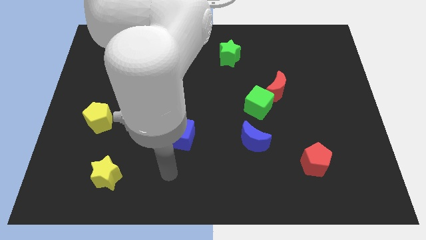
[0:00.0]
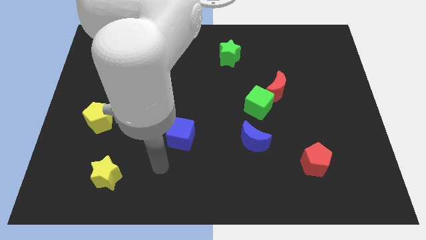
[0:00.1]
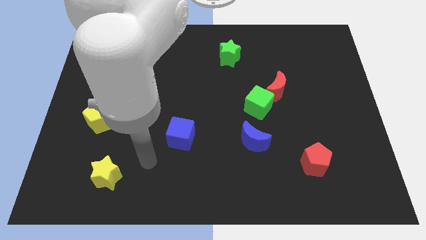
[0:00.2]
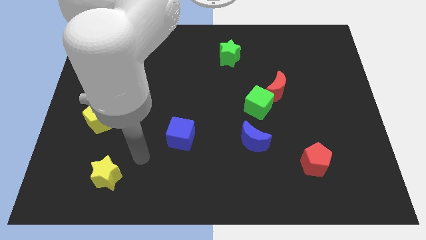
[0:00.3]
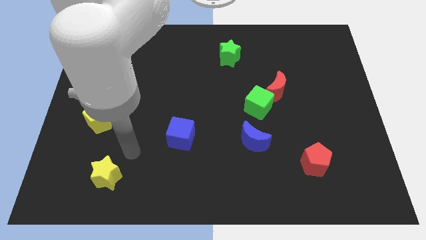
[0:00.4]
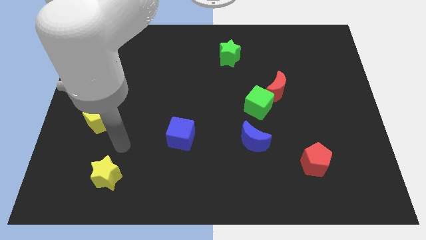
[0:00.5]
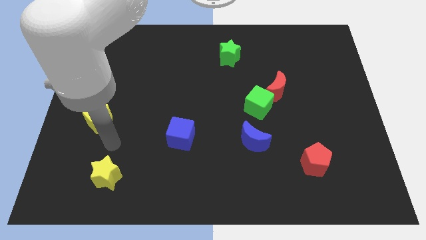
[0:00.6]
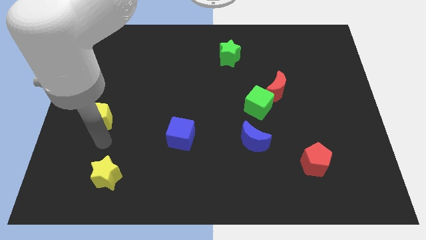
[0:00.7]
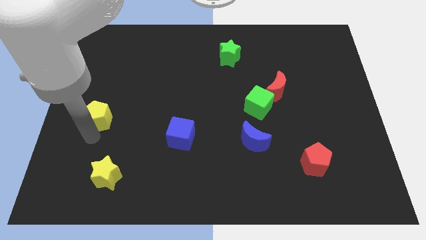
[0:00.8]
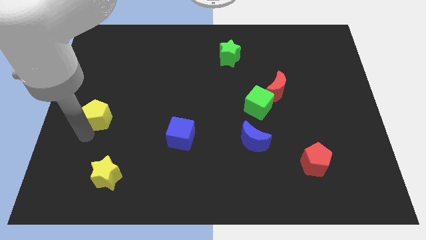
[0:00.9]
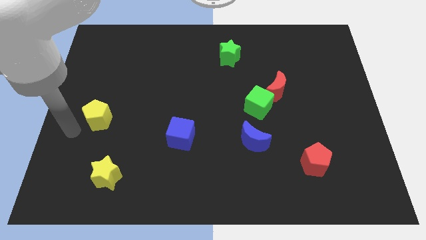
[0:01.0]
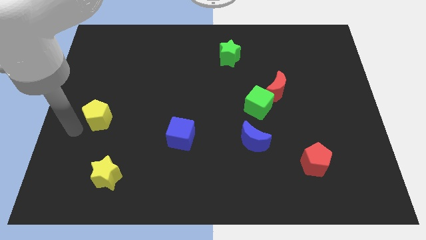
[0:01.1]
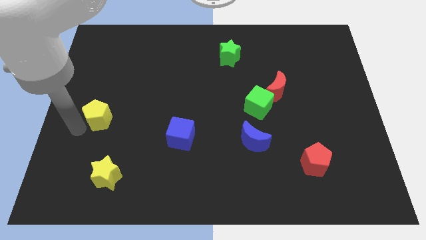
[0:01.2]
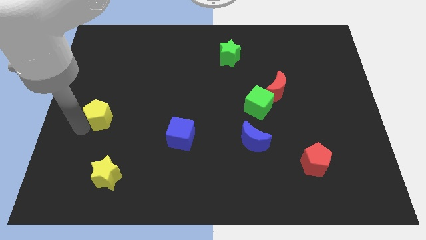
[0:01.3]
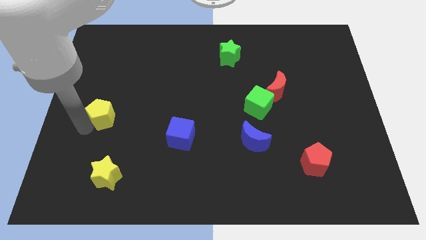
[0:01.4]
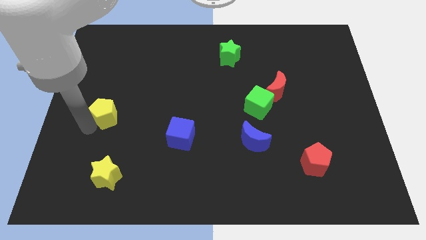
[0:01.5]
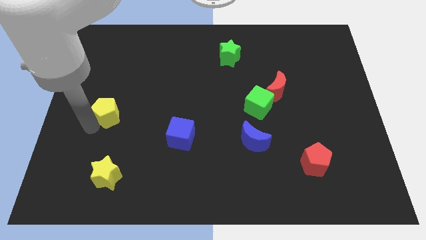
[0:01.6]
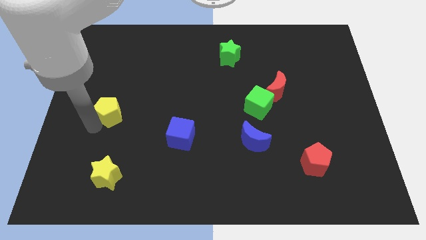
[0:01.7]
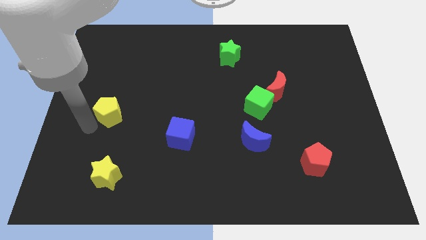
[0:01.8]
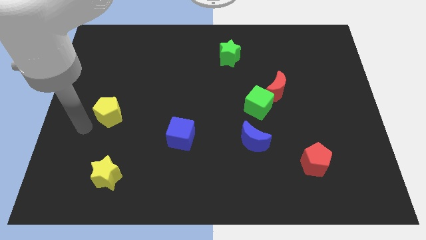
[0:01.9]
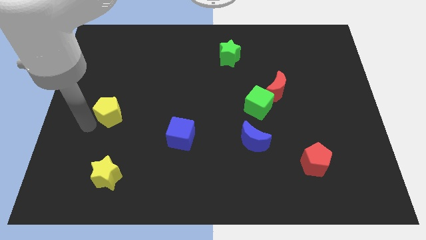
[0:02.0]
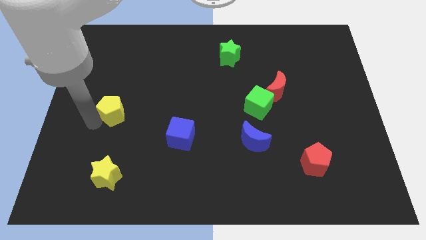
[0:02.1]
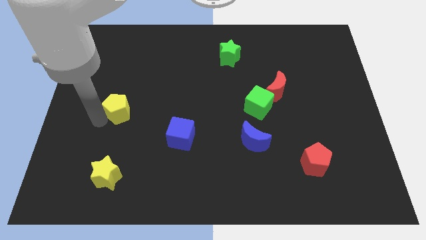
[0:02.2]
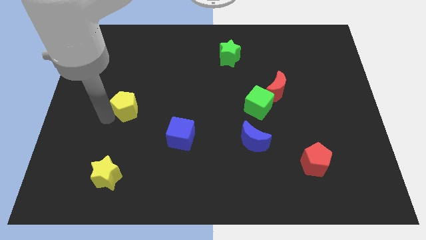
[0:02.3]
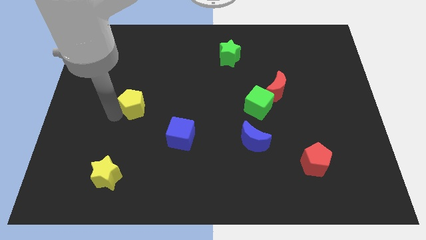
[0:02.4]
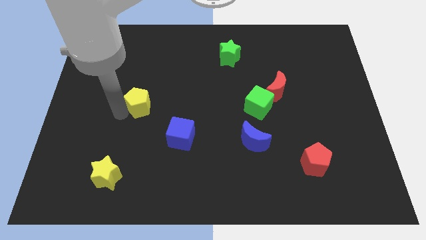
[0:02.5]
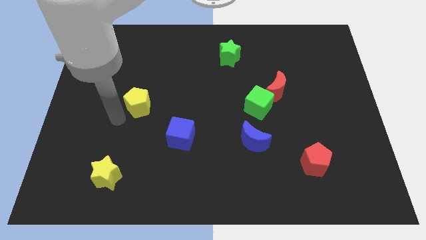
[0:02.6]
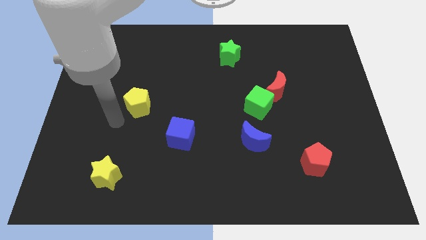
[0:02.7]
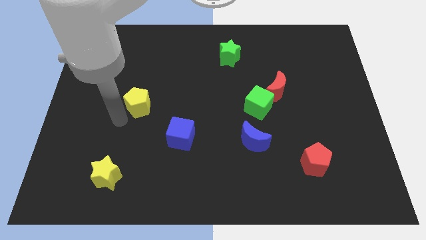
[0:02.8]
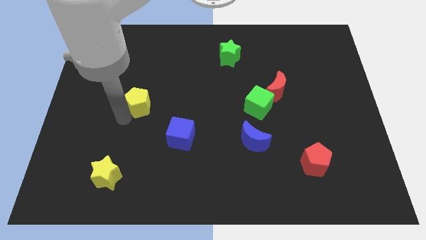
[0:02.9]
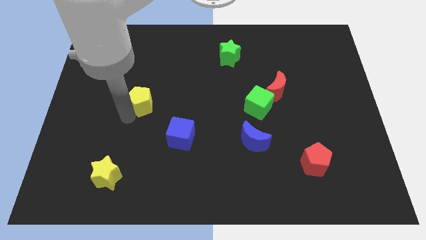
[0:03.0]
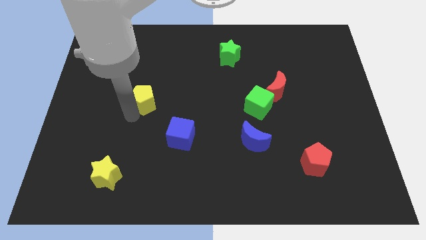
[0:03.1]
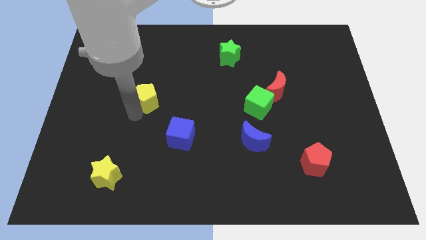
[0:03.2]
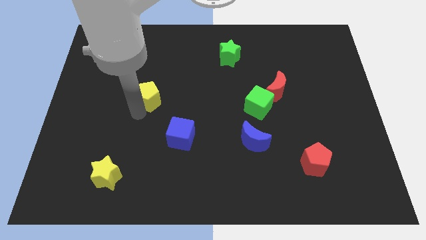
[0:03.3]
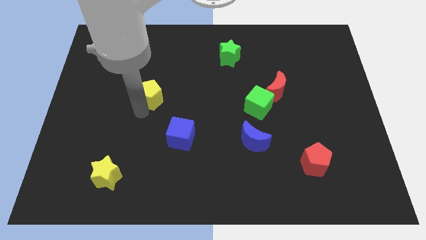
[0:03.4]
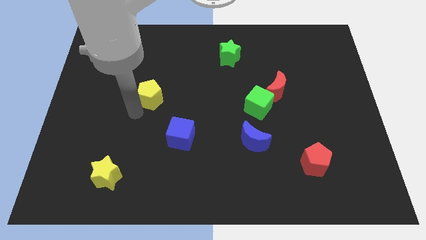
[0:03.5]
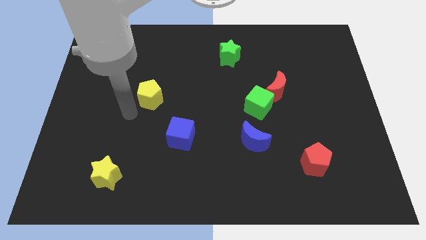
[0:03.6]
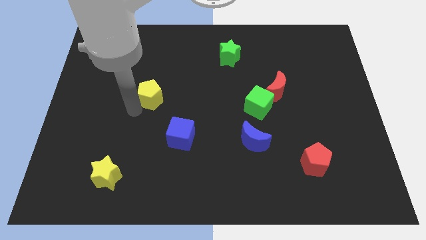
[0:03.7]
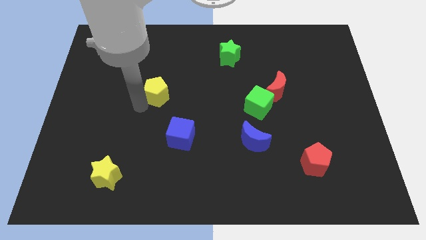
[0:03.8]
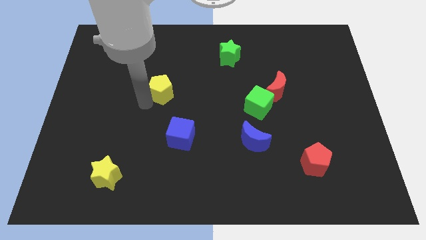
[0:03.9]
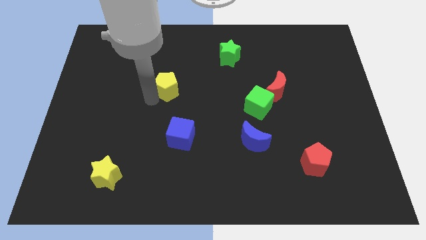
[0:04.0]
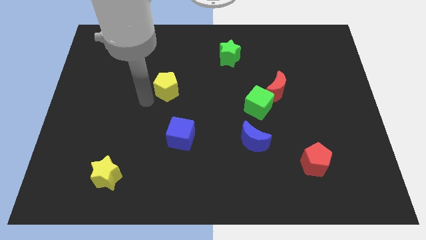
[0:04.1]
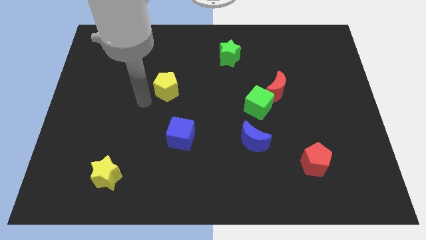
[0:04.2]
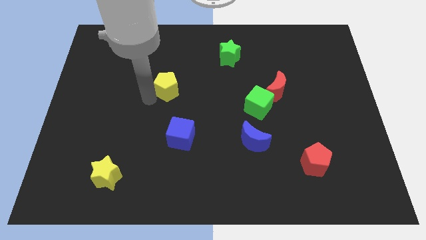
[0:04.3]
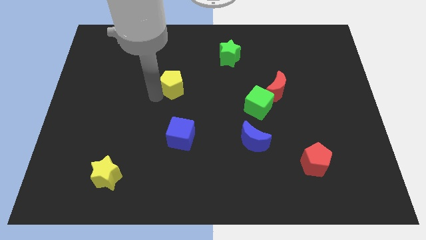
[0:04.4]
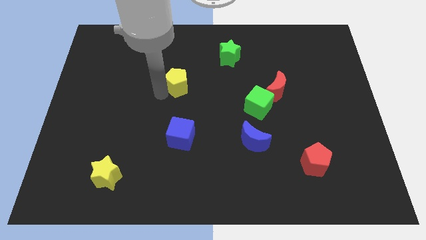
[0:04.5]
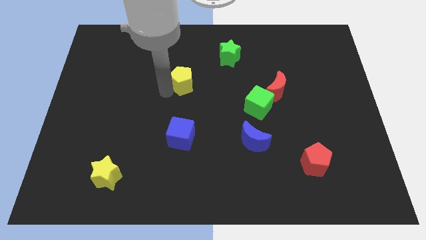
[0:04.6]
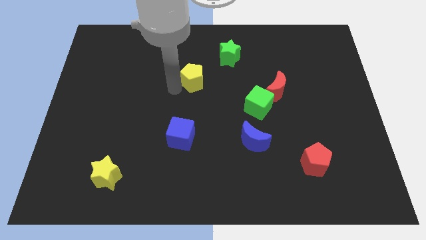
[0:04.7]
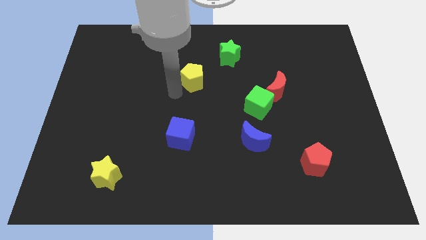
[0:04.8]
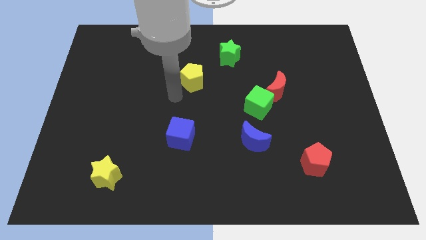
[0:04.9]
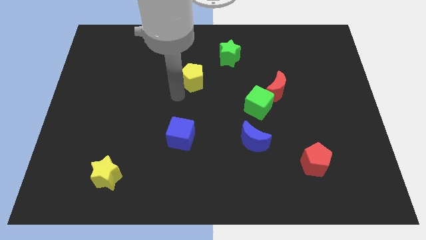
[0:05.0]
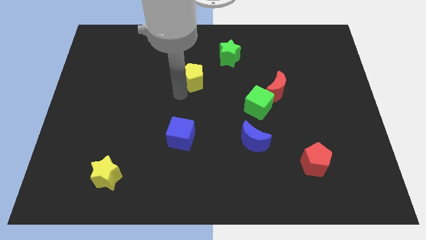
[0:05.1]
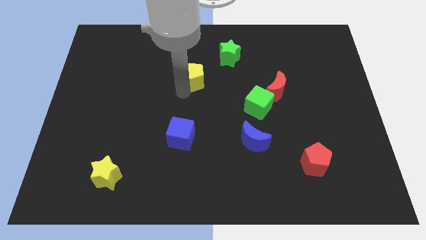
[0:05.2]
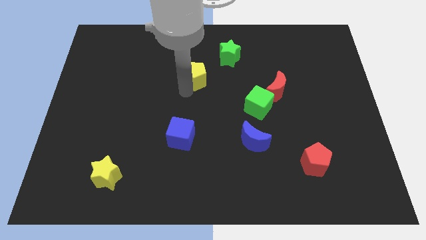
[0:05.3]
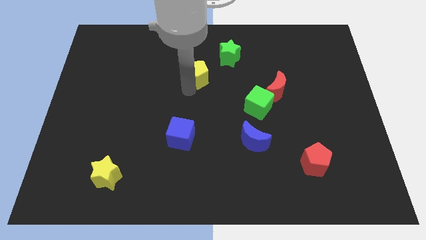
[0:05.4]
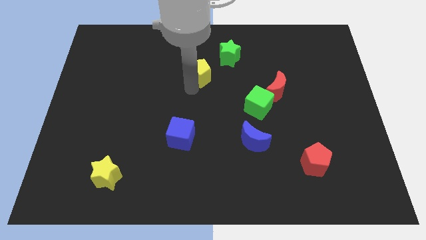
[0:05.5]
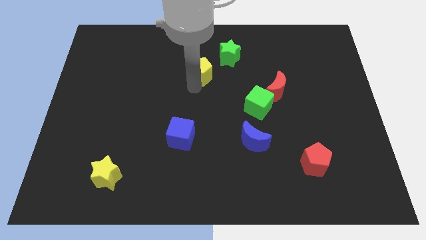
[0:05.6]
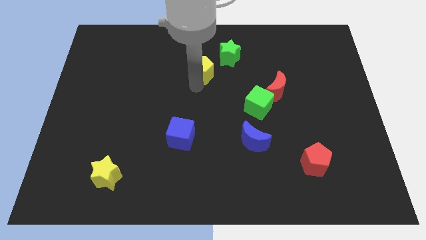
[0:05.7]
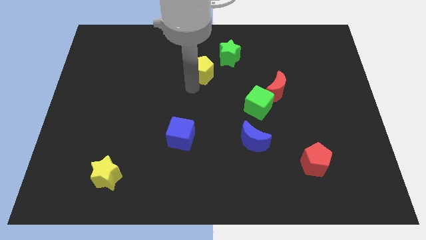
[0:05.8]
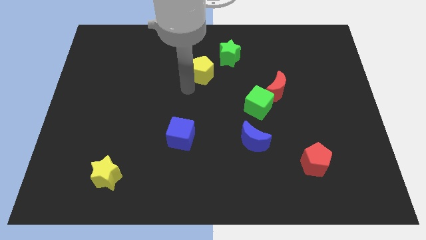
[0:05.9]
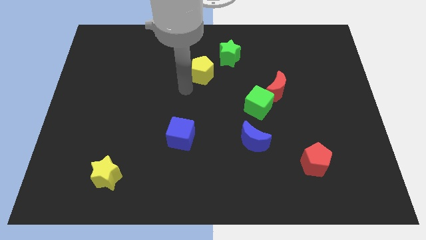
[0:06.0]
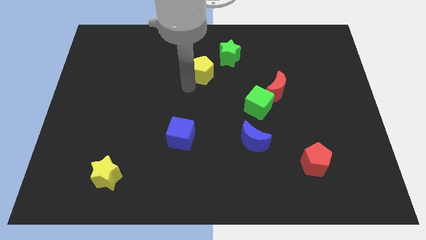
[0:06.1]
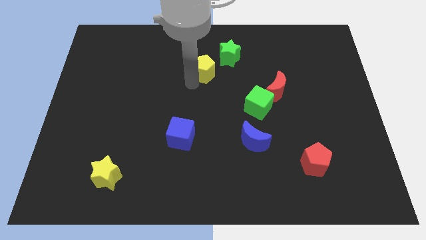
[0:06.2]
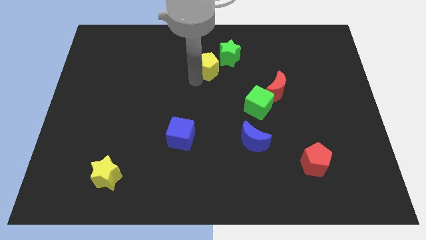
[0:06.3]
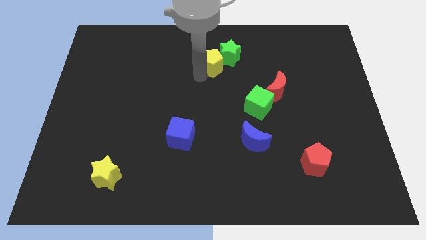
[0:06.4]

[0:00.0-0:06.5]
move the yellow pentagon to the green star

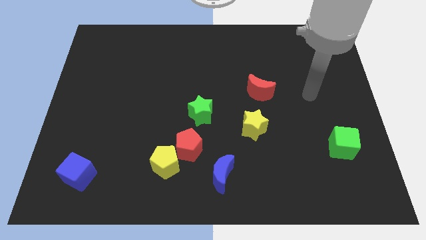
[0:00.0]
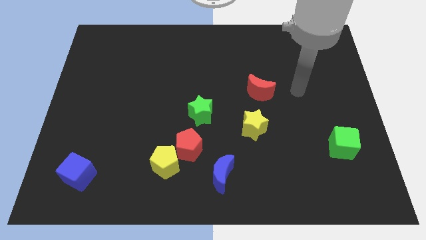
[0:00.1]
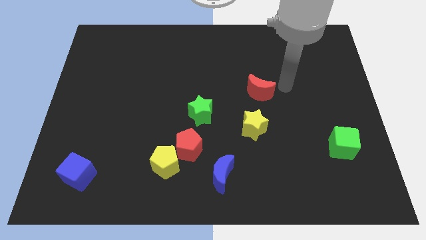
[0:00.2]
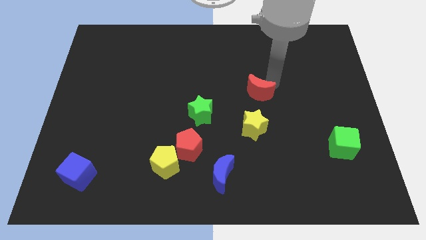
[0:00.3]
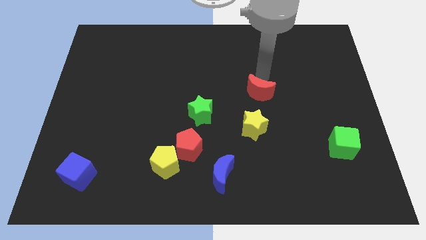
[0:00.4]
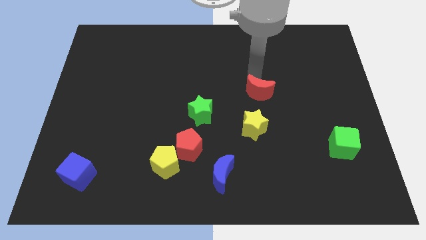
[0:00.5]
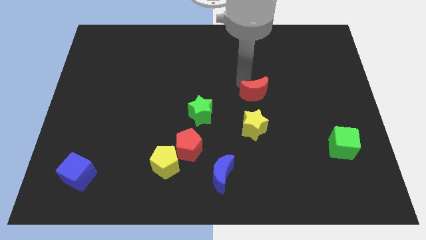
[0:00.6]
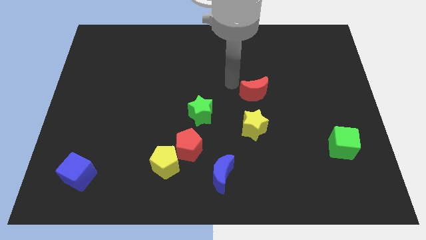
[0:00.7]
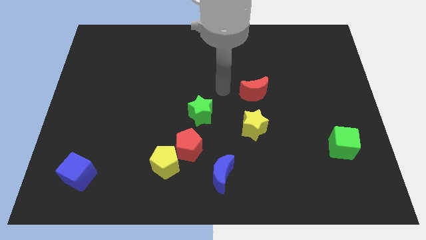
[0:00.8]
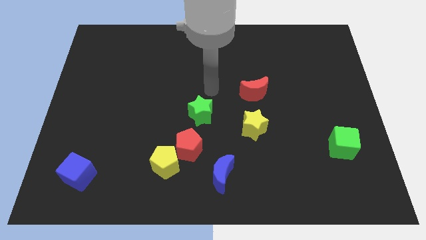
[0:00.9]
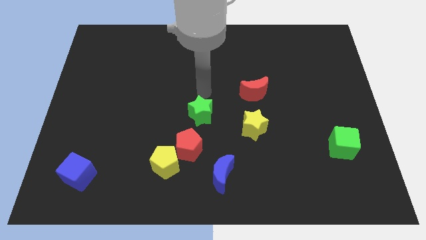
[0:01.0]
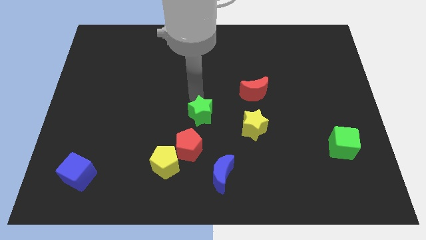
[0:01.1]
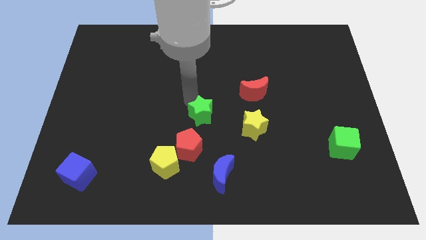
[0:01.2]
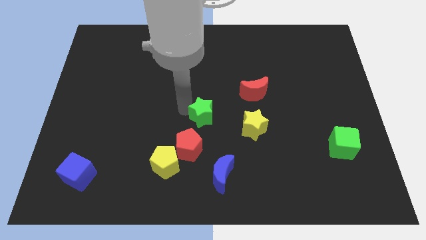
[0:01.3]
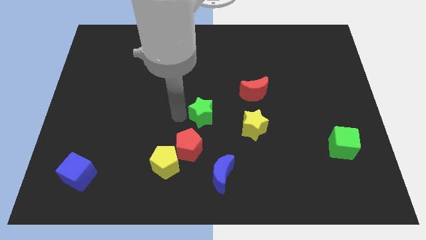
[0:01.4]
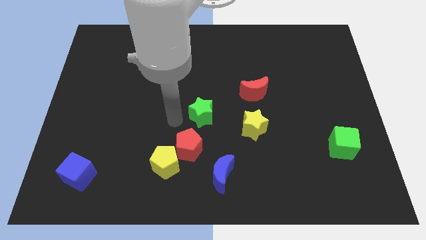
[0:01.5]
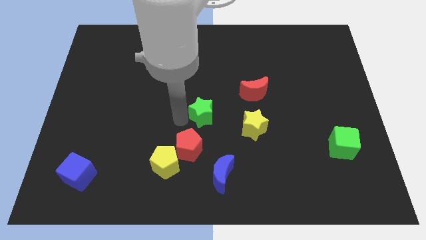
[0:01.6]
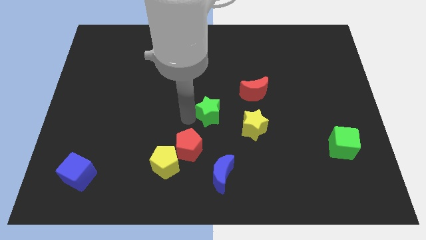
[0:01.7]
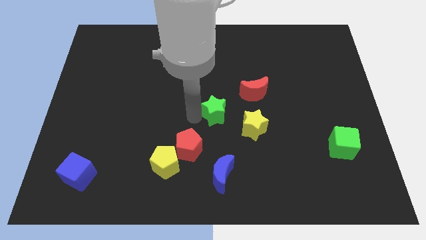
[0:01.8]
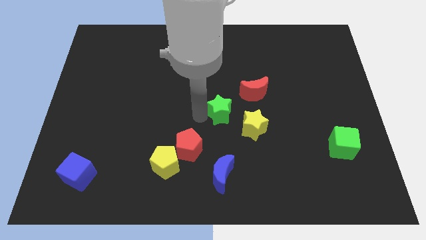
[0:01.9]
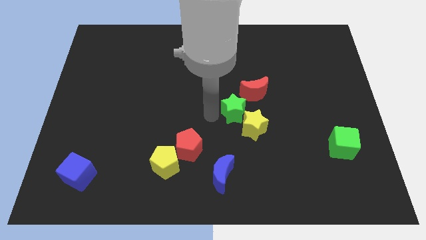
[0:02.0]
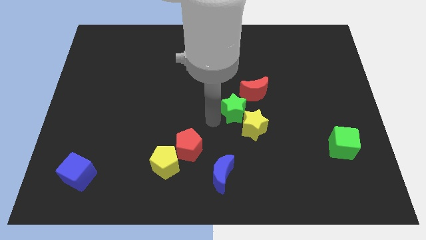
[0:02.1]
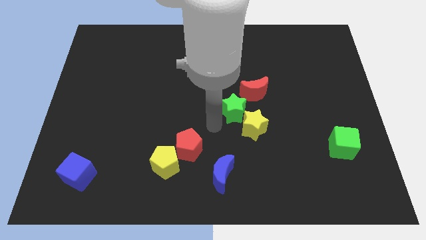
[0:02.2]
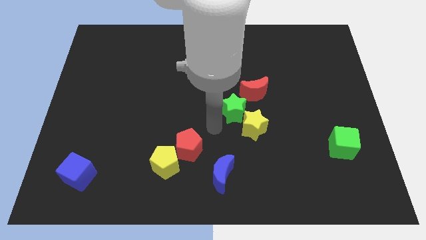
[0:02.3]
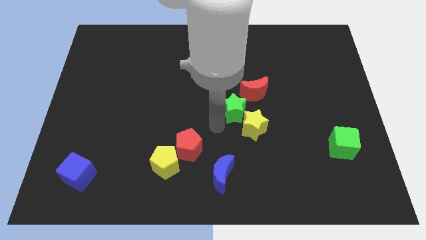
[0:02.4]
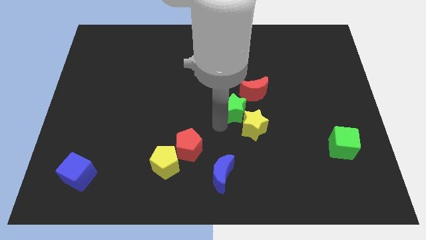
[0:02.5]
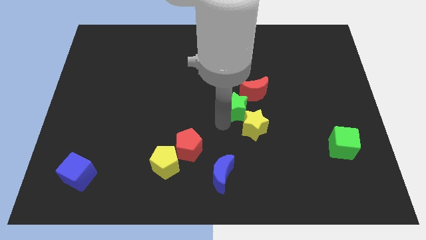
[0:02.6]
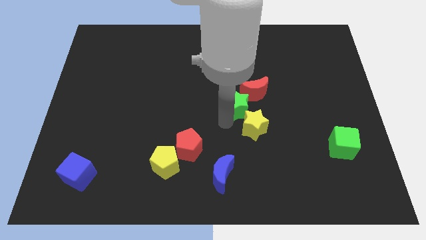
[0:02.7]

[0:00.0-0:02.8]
push the green star close to the red moon
